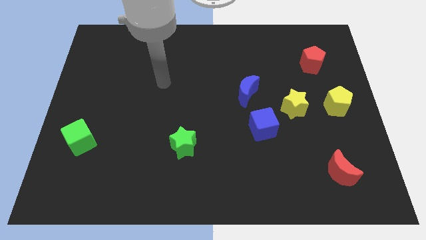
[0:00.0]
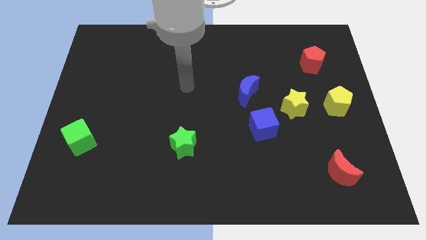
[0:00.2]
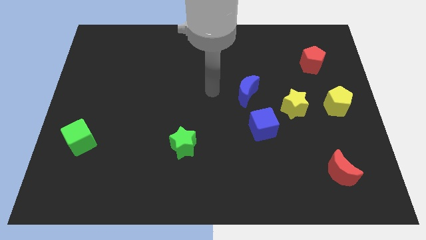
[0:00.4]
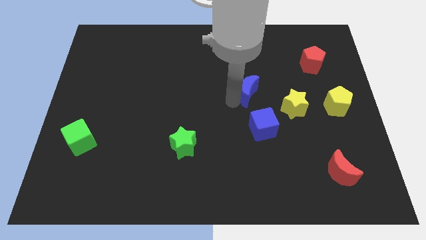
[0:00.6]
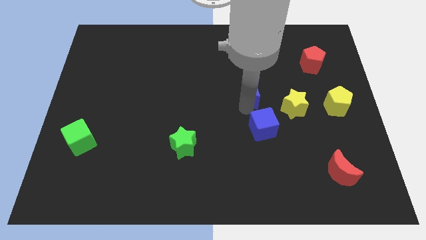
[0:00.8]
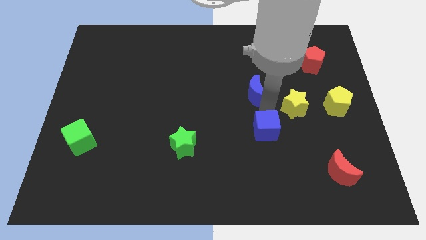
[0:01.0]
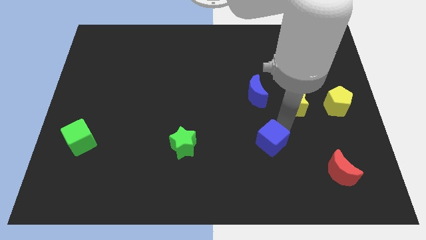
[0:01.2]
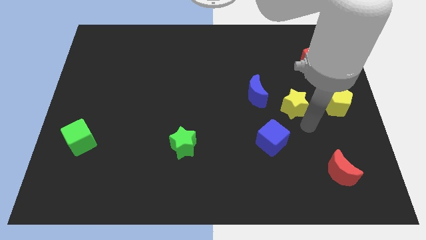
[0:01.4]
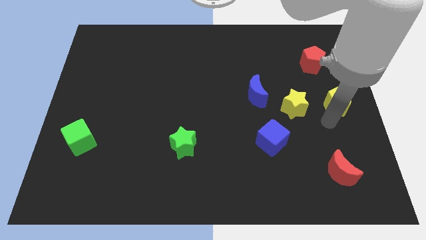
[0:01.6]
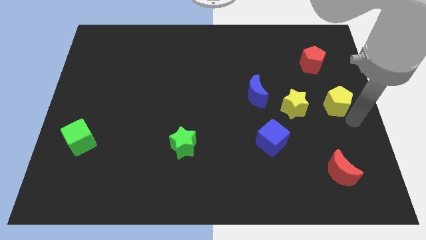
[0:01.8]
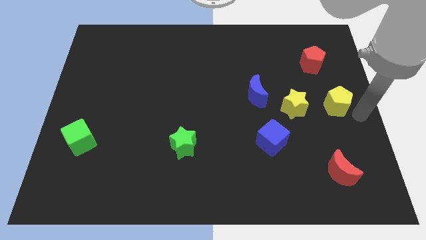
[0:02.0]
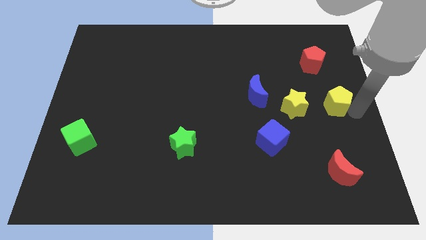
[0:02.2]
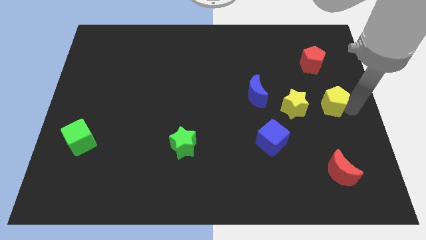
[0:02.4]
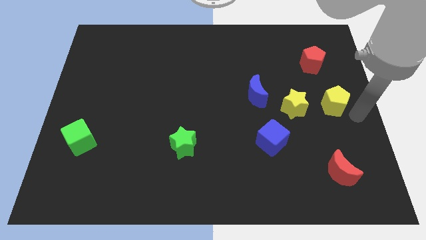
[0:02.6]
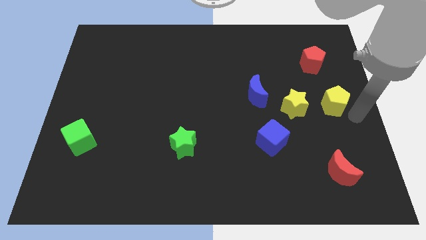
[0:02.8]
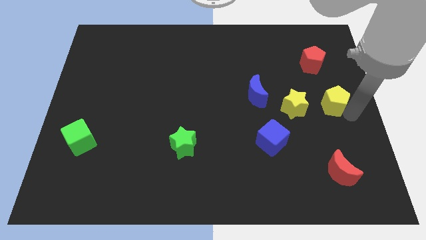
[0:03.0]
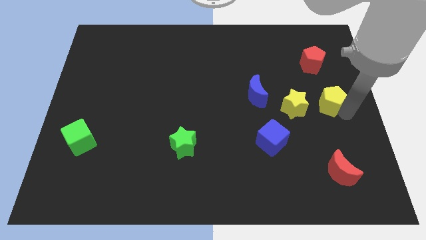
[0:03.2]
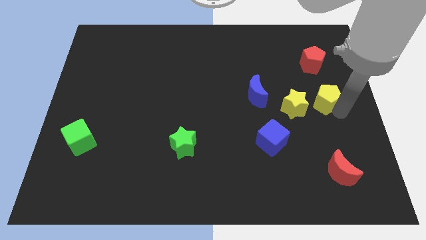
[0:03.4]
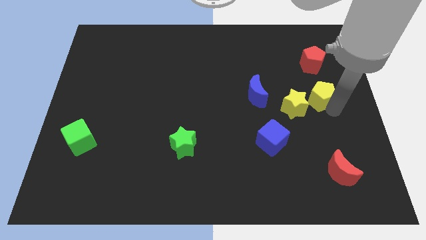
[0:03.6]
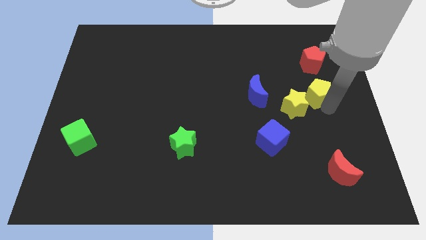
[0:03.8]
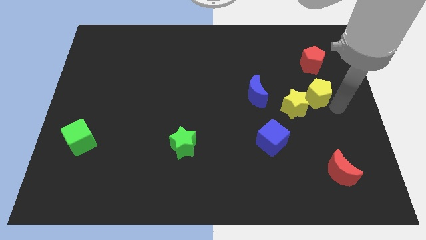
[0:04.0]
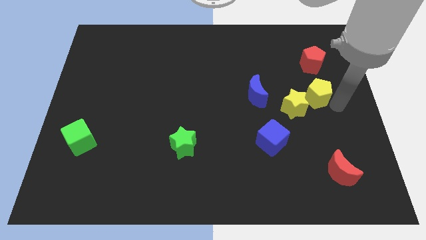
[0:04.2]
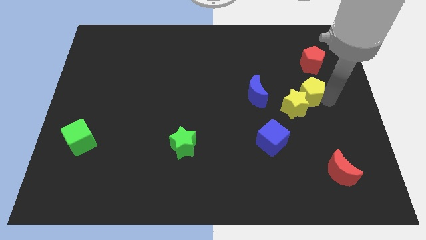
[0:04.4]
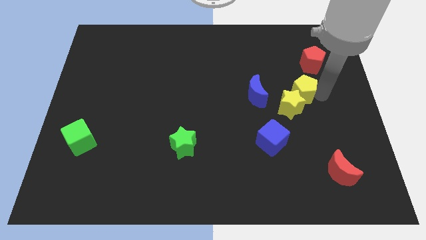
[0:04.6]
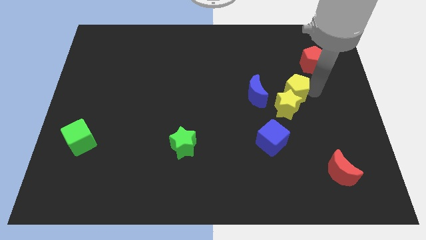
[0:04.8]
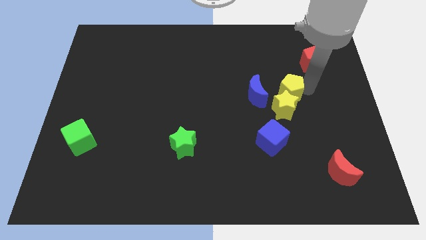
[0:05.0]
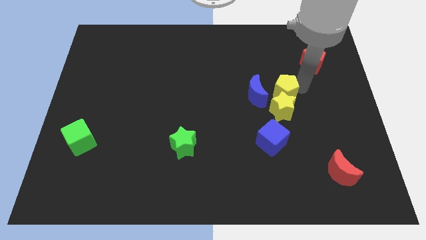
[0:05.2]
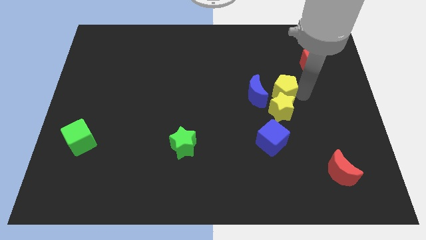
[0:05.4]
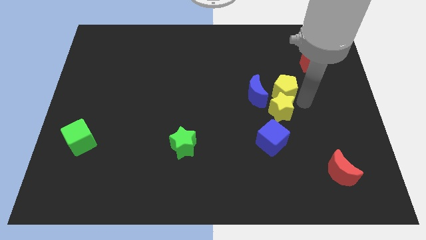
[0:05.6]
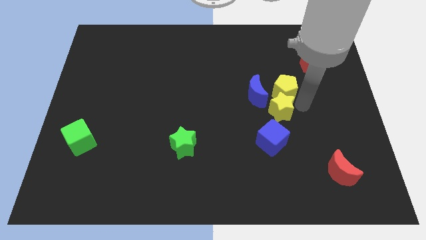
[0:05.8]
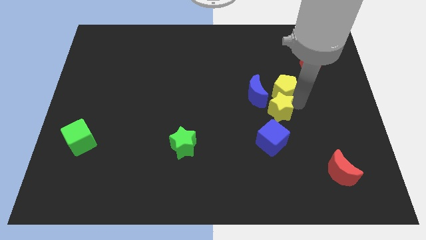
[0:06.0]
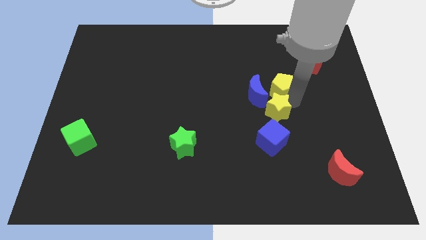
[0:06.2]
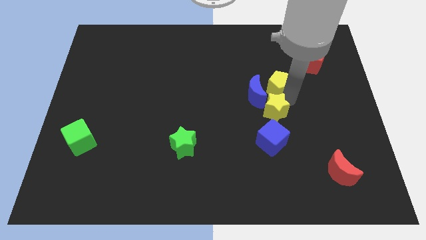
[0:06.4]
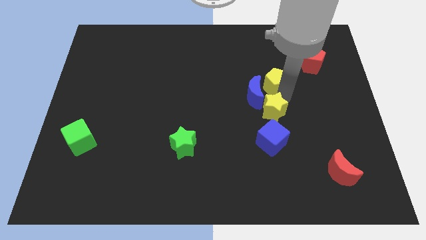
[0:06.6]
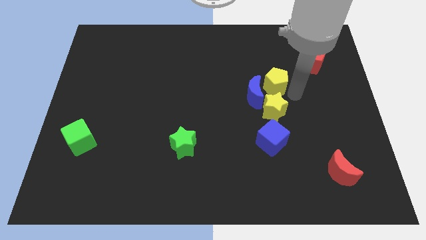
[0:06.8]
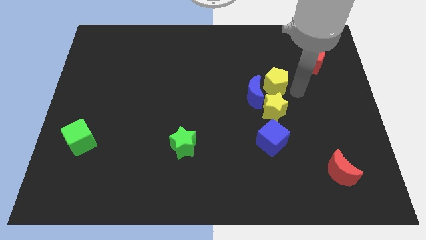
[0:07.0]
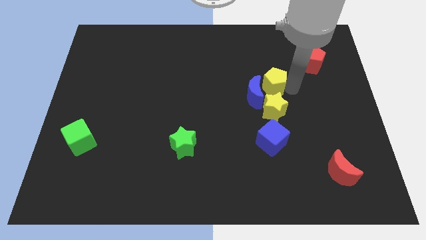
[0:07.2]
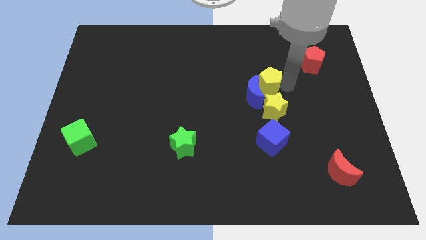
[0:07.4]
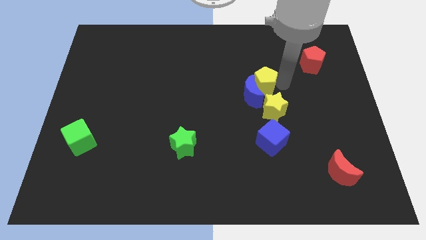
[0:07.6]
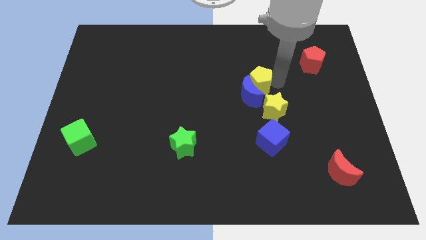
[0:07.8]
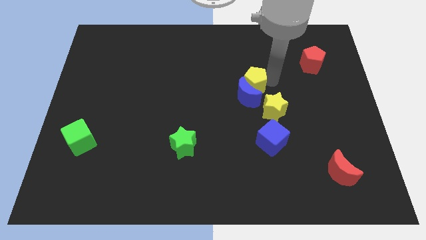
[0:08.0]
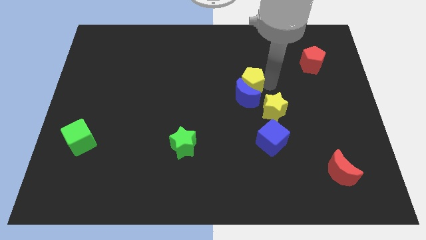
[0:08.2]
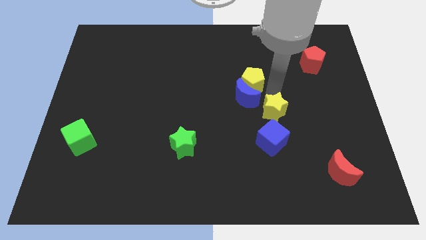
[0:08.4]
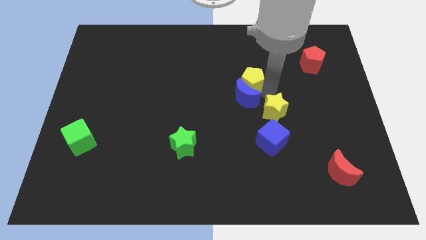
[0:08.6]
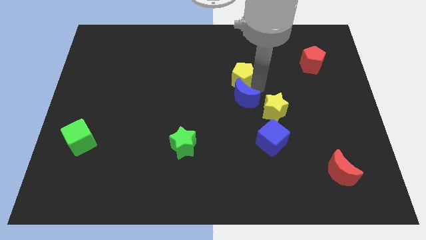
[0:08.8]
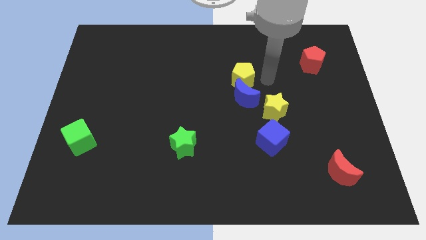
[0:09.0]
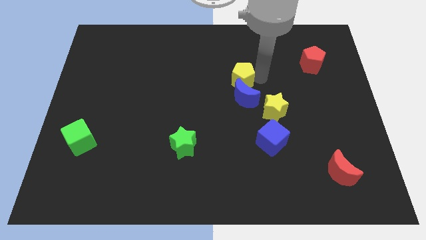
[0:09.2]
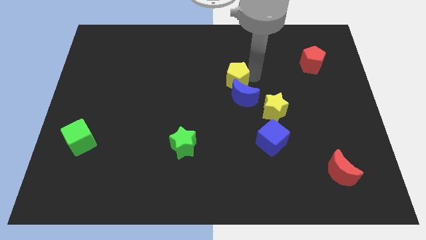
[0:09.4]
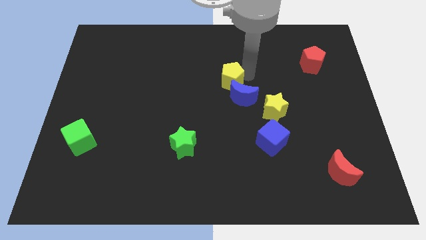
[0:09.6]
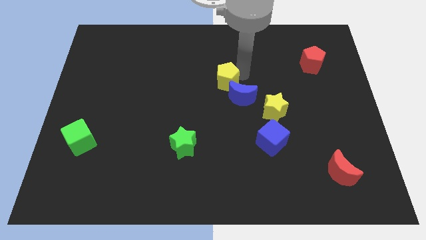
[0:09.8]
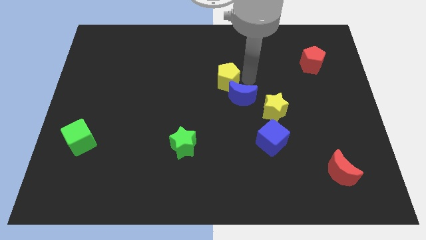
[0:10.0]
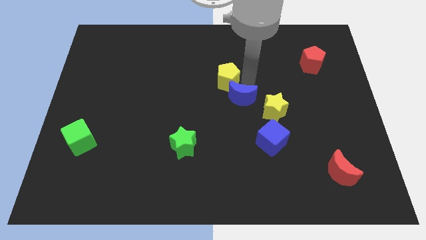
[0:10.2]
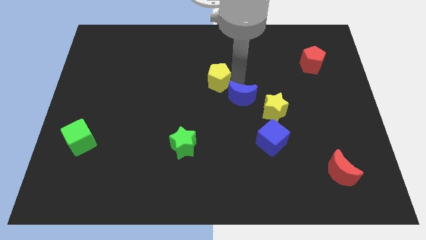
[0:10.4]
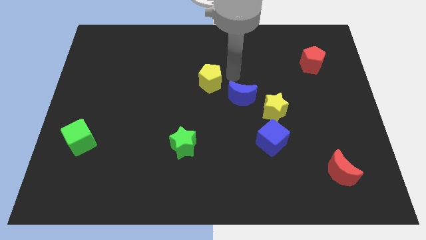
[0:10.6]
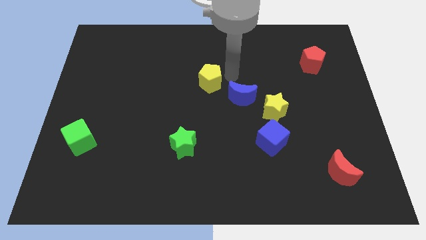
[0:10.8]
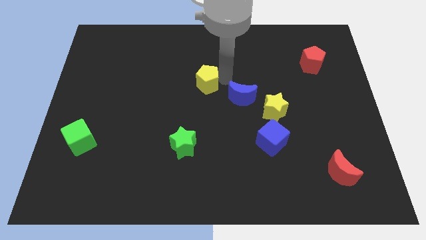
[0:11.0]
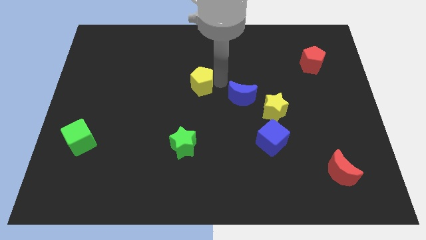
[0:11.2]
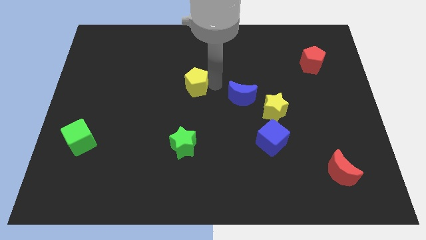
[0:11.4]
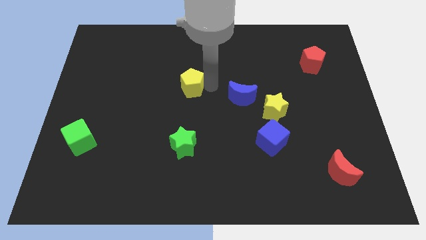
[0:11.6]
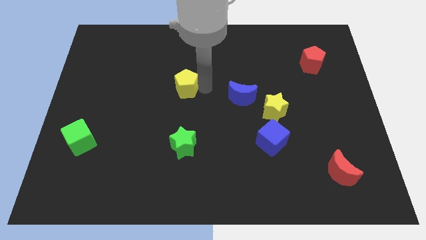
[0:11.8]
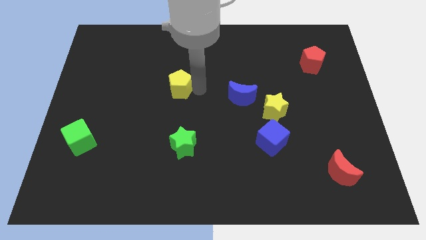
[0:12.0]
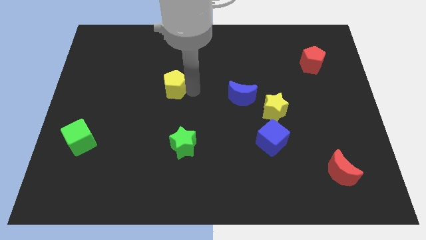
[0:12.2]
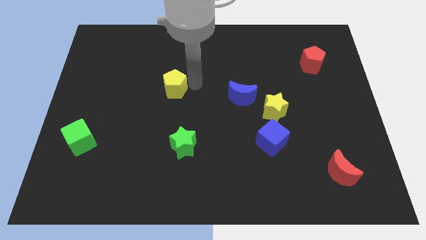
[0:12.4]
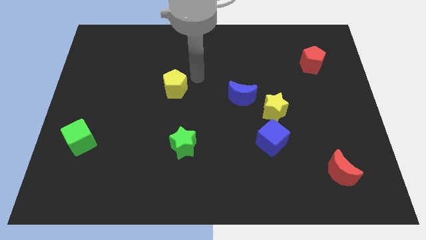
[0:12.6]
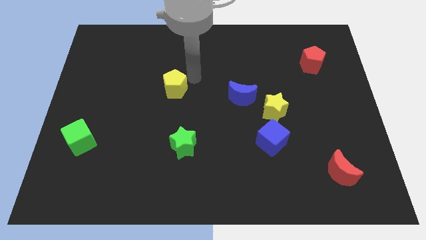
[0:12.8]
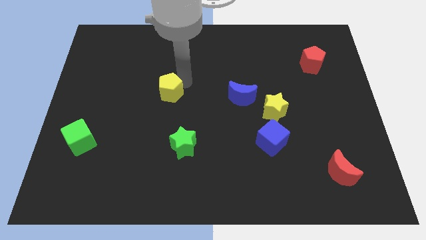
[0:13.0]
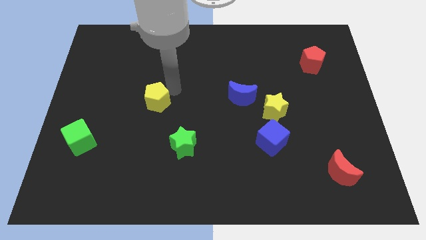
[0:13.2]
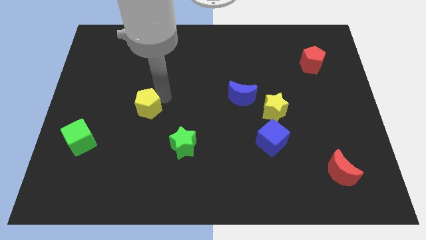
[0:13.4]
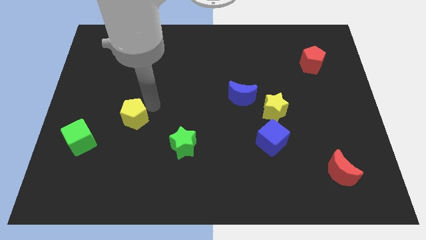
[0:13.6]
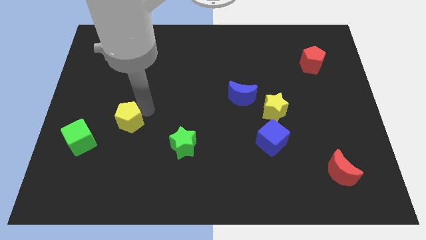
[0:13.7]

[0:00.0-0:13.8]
slide the yellow pentagon to the top right side of the green cube

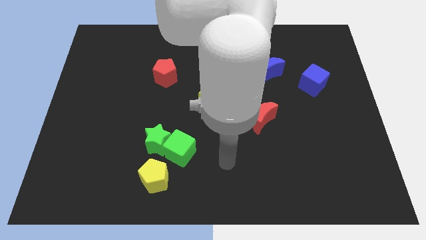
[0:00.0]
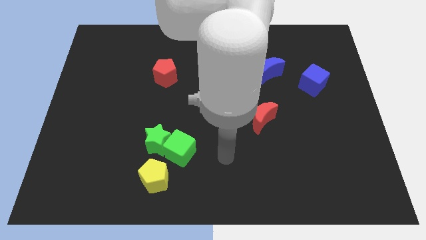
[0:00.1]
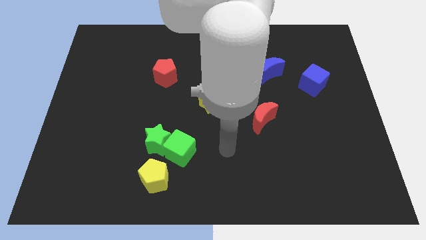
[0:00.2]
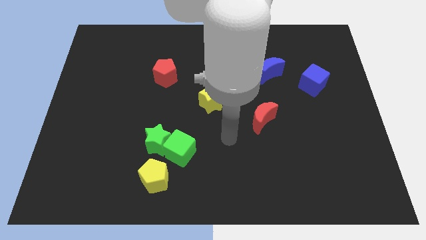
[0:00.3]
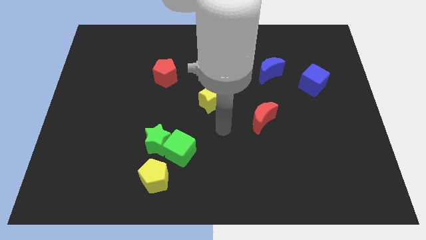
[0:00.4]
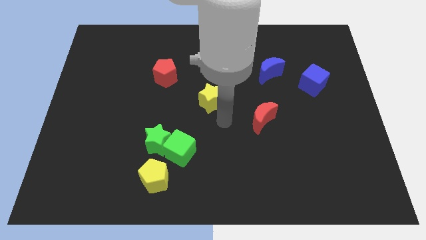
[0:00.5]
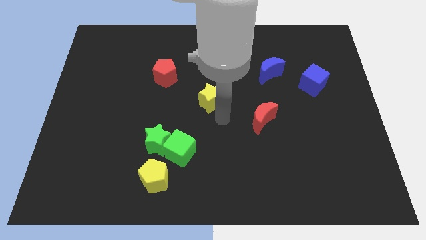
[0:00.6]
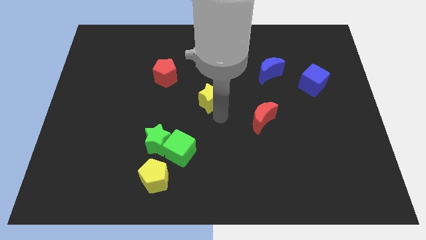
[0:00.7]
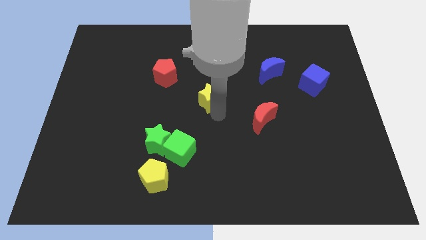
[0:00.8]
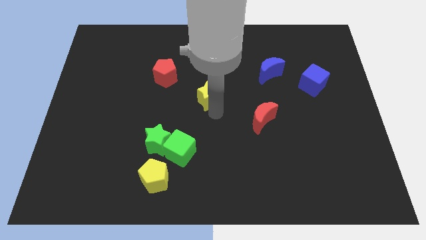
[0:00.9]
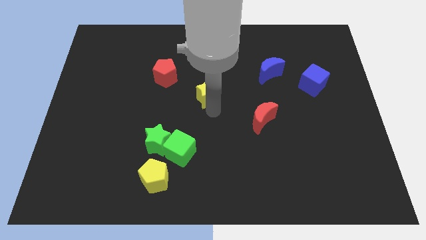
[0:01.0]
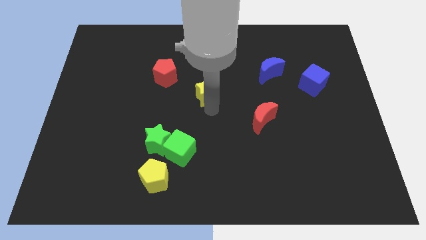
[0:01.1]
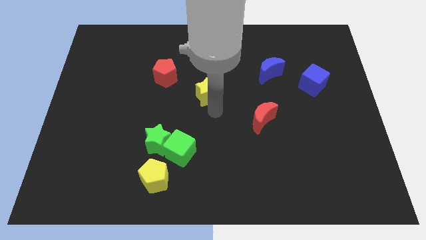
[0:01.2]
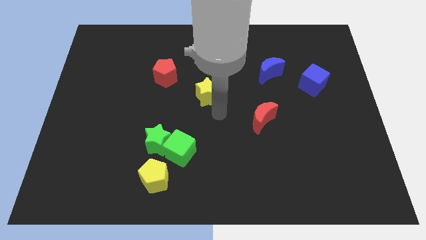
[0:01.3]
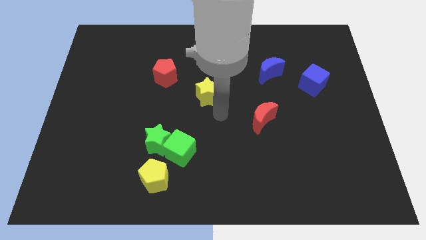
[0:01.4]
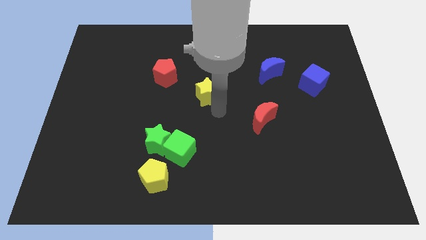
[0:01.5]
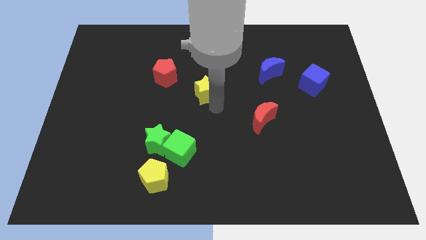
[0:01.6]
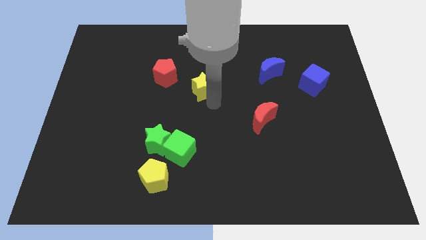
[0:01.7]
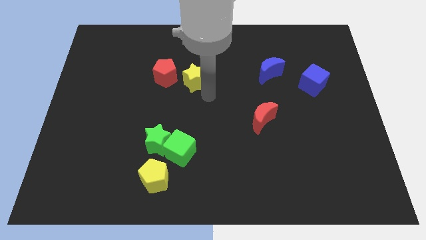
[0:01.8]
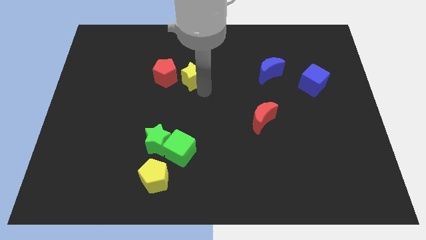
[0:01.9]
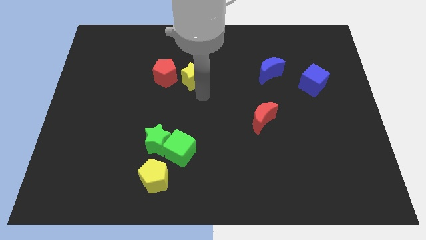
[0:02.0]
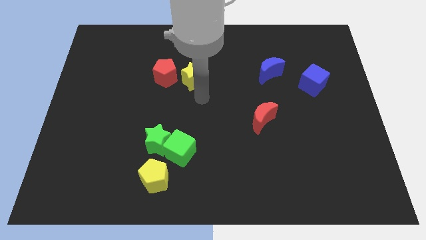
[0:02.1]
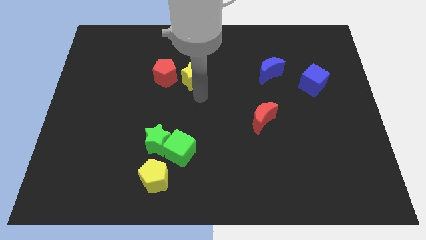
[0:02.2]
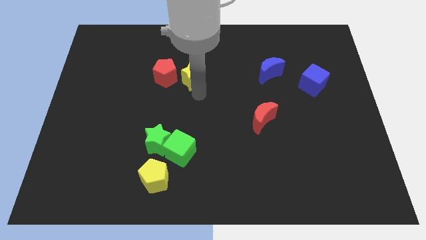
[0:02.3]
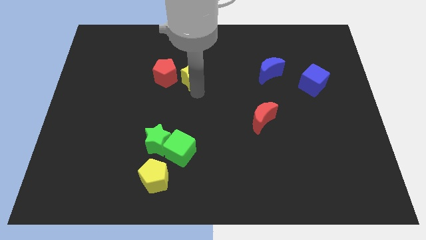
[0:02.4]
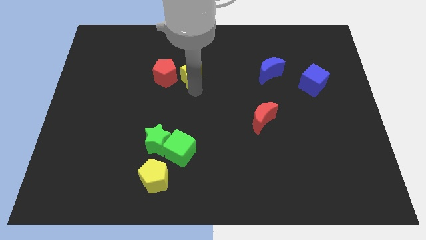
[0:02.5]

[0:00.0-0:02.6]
push the yellow star diagonally up and to the right of the red pentagon
